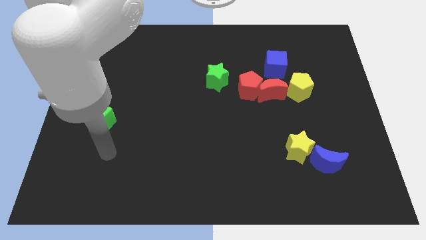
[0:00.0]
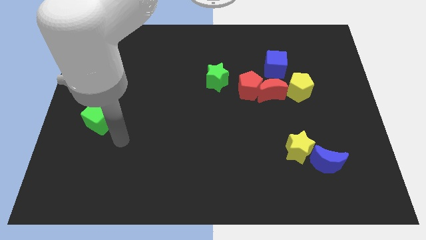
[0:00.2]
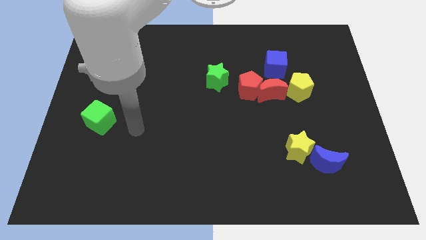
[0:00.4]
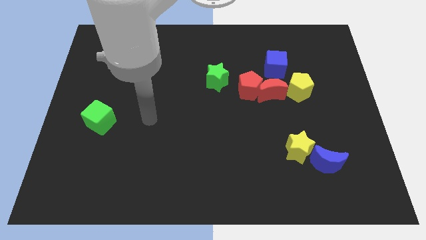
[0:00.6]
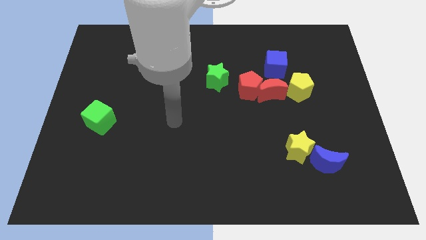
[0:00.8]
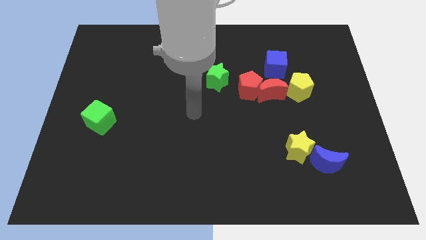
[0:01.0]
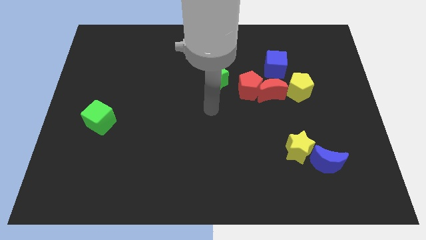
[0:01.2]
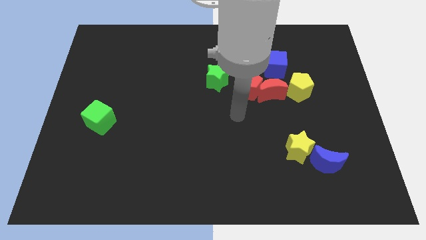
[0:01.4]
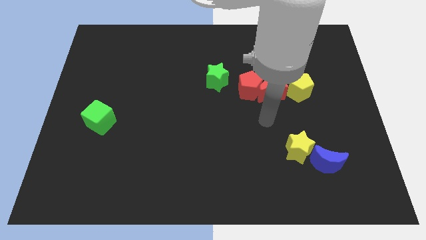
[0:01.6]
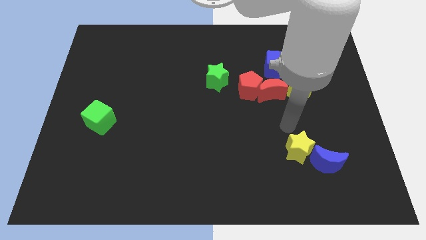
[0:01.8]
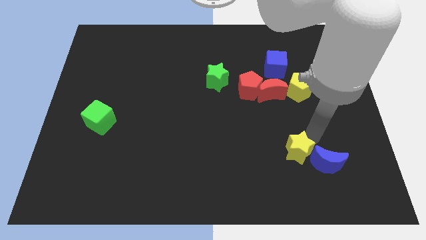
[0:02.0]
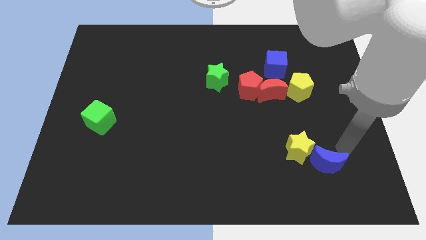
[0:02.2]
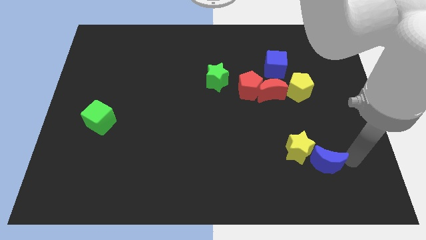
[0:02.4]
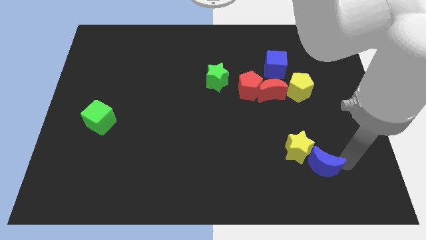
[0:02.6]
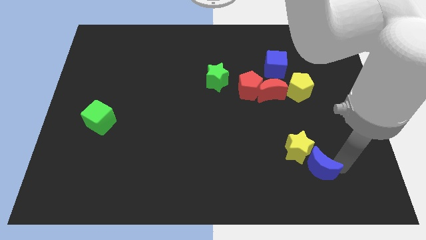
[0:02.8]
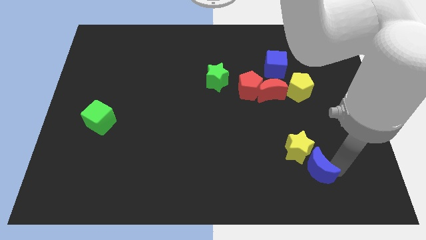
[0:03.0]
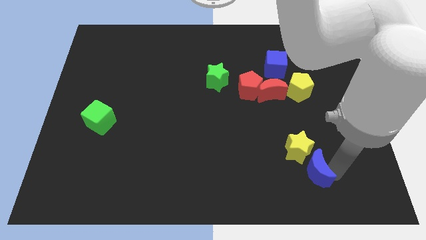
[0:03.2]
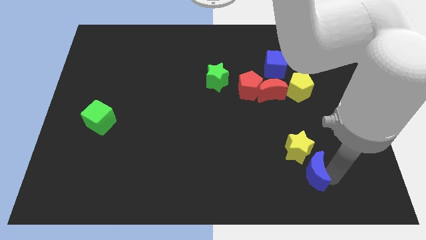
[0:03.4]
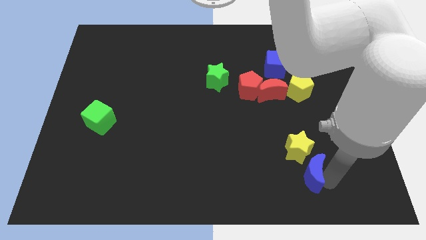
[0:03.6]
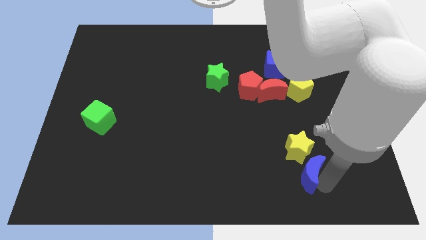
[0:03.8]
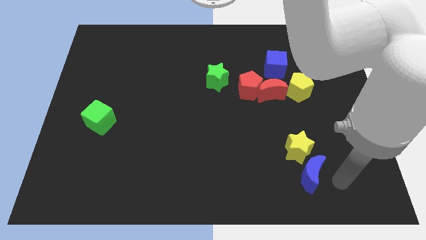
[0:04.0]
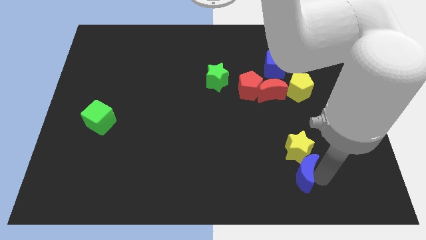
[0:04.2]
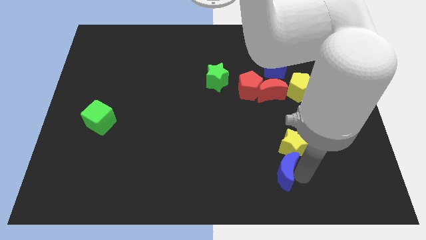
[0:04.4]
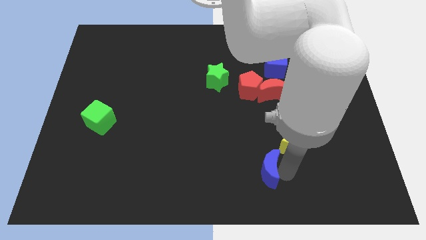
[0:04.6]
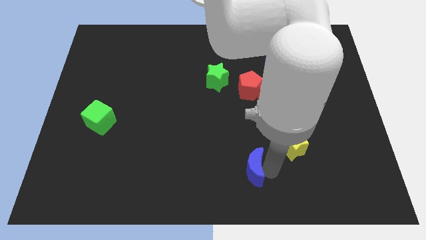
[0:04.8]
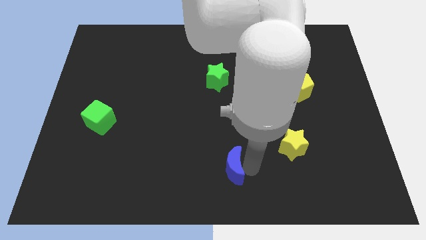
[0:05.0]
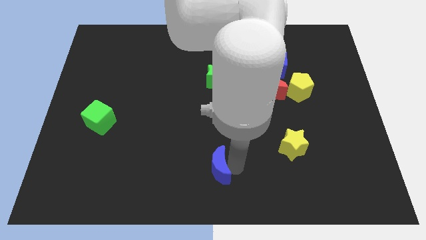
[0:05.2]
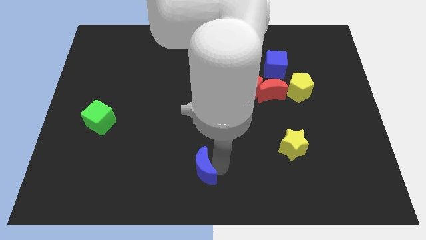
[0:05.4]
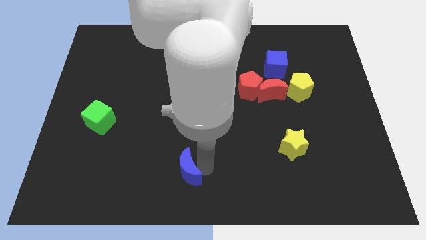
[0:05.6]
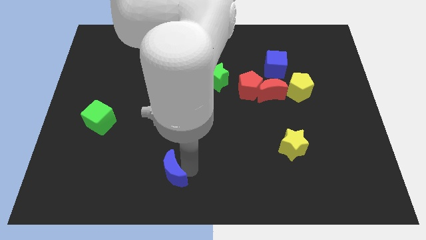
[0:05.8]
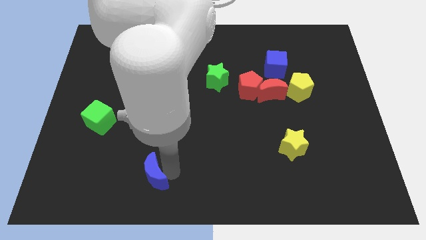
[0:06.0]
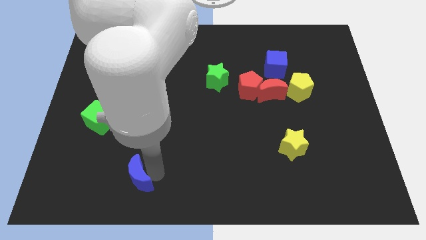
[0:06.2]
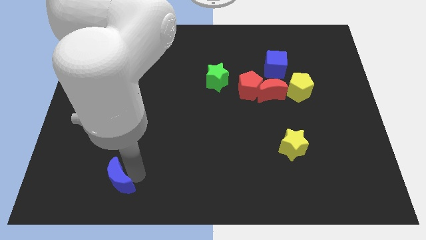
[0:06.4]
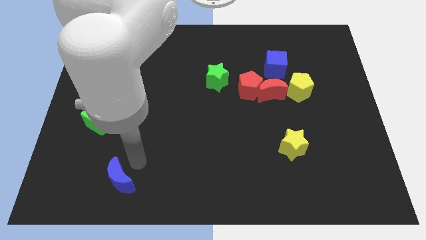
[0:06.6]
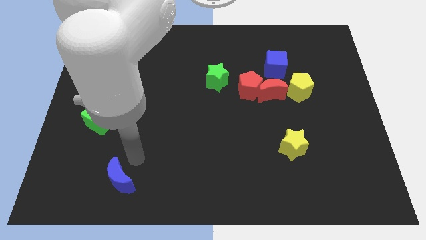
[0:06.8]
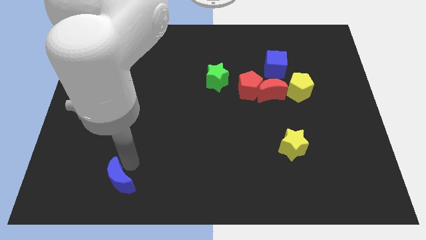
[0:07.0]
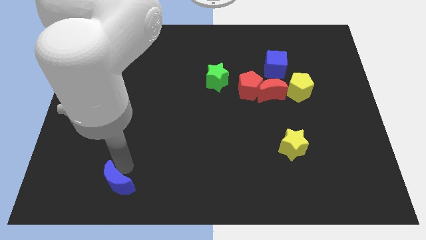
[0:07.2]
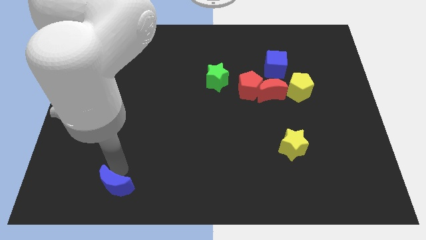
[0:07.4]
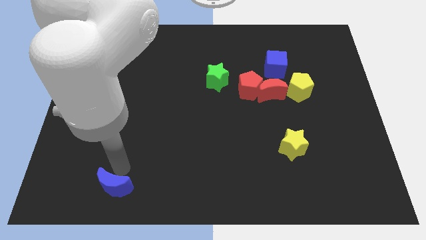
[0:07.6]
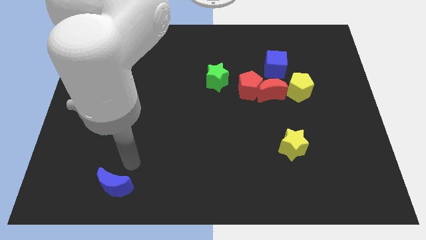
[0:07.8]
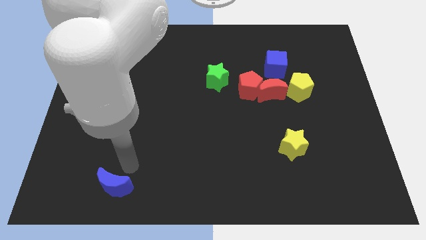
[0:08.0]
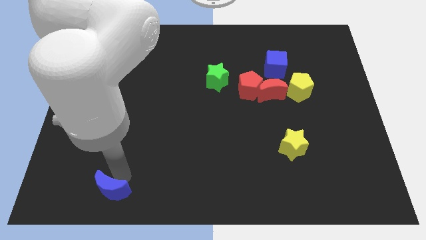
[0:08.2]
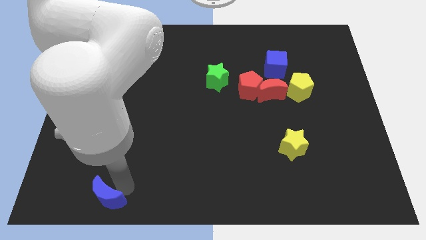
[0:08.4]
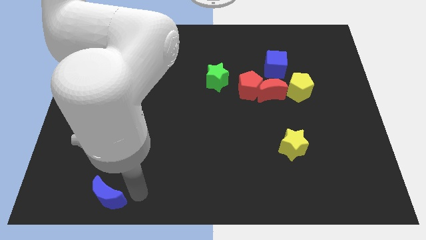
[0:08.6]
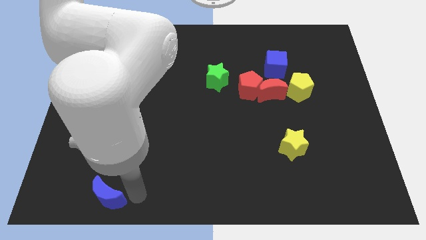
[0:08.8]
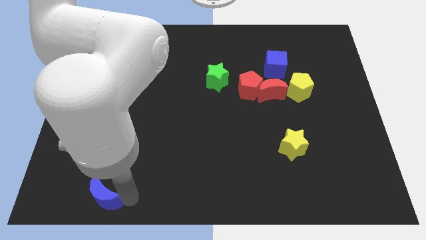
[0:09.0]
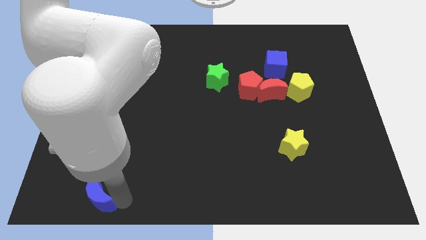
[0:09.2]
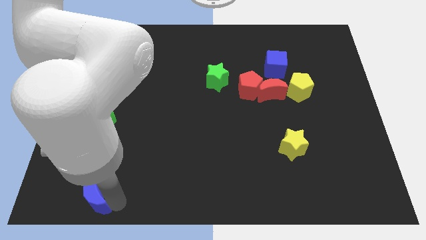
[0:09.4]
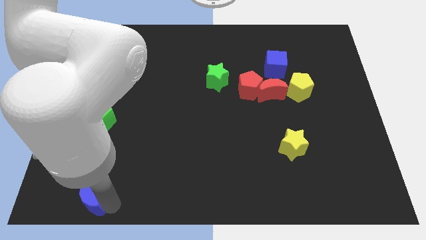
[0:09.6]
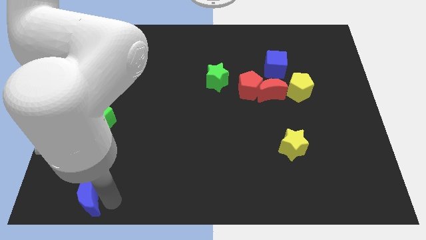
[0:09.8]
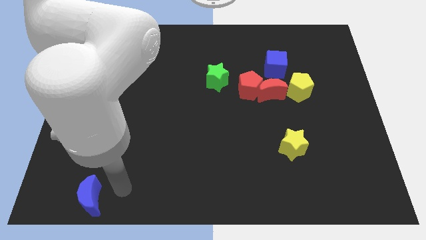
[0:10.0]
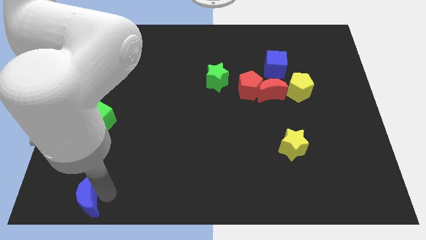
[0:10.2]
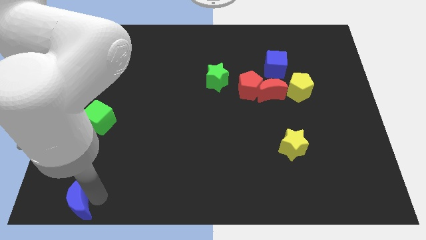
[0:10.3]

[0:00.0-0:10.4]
put the blue moon to the bottom left

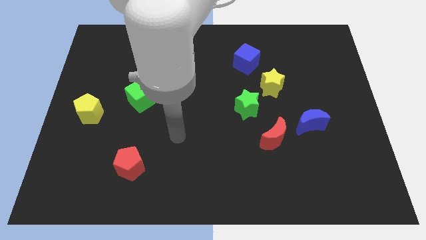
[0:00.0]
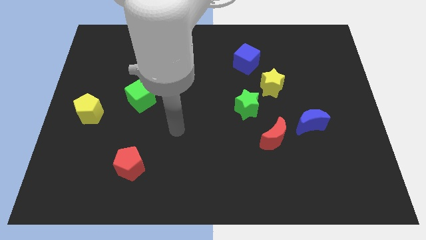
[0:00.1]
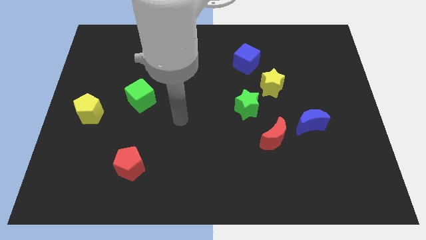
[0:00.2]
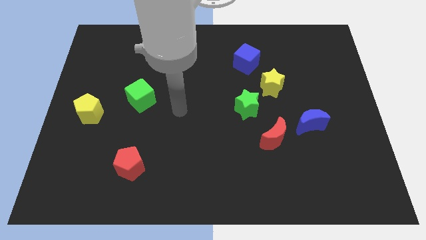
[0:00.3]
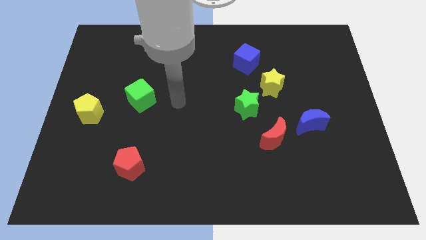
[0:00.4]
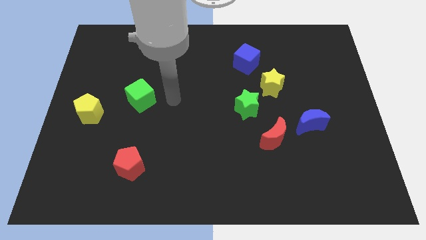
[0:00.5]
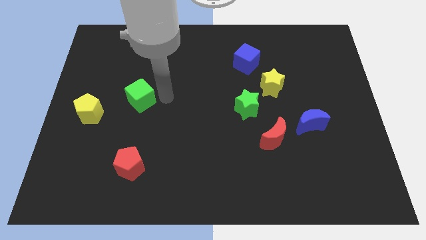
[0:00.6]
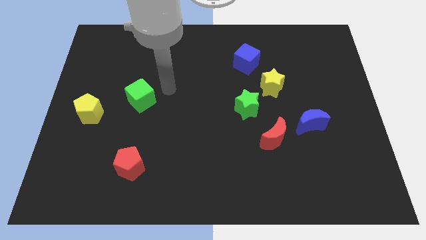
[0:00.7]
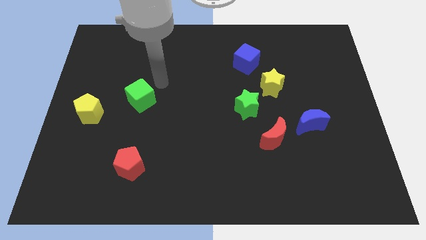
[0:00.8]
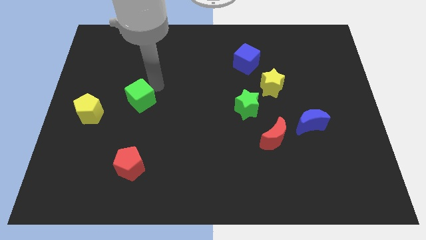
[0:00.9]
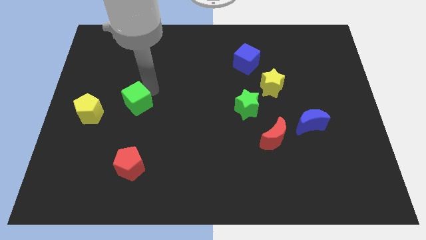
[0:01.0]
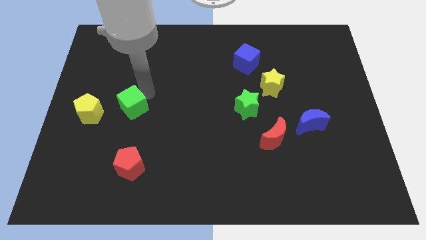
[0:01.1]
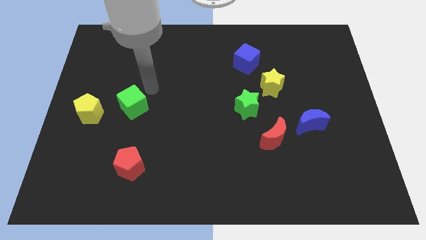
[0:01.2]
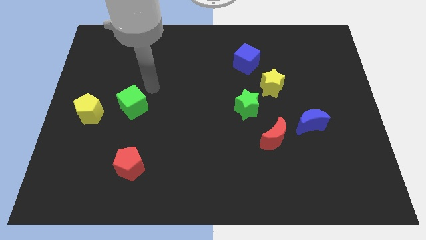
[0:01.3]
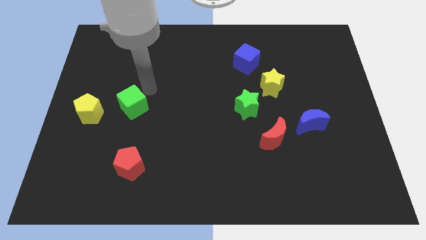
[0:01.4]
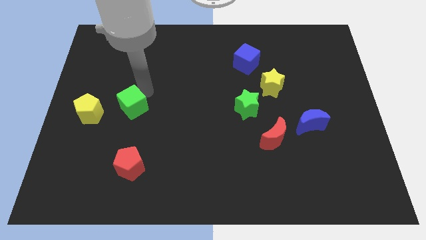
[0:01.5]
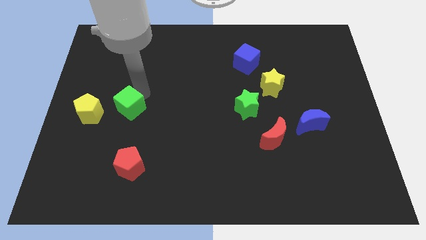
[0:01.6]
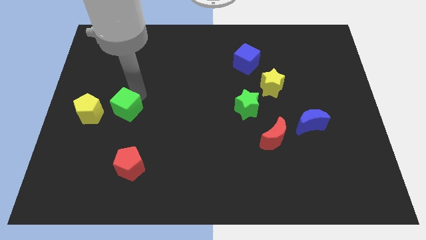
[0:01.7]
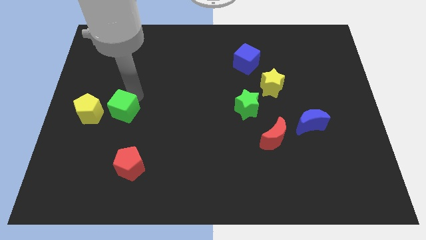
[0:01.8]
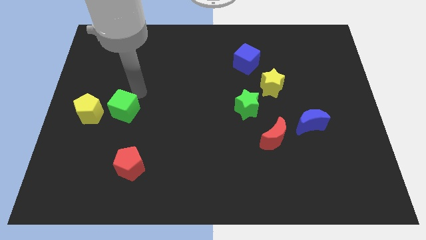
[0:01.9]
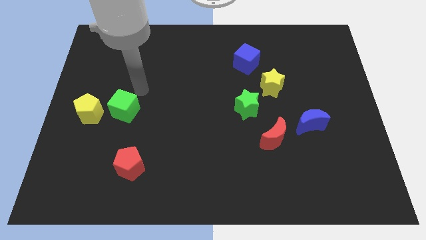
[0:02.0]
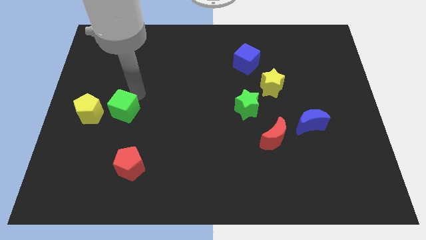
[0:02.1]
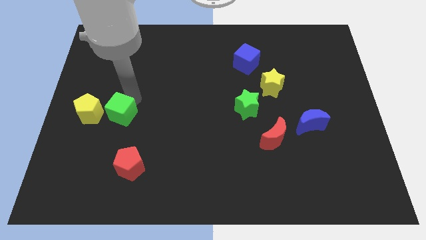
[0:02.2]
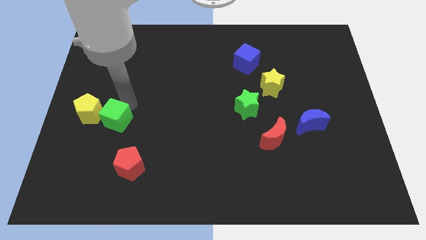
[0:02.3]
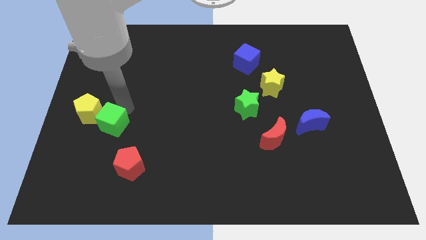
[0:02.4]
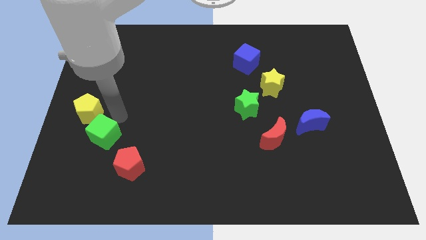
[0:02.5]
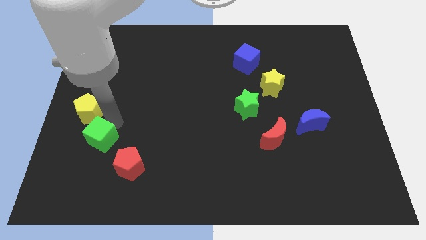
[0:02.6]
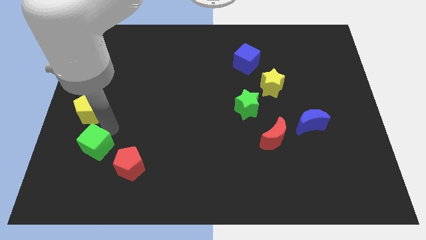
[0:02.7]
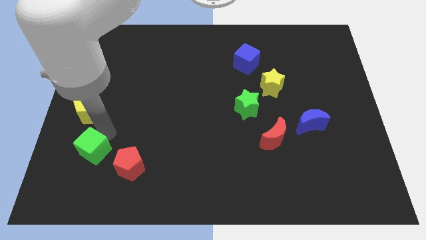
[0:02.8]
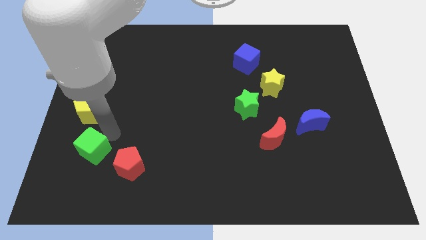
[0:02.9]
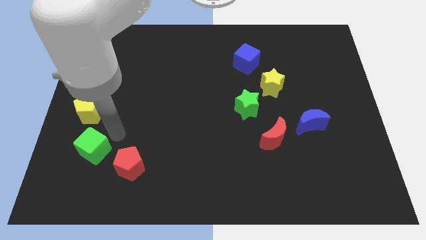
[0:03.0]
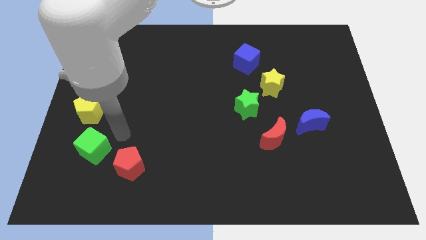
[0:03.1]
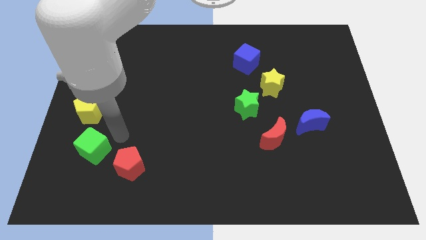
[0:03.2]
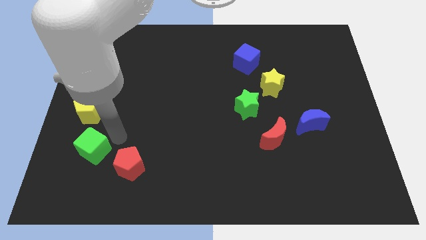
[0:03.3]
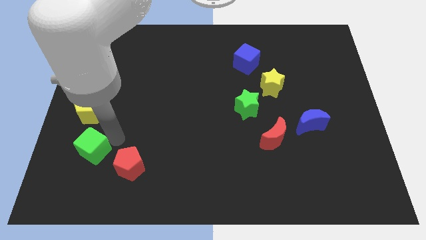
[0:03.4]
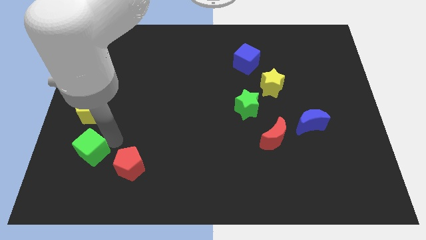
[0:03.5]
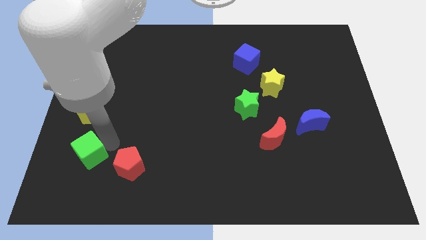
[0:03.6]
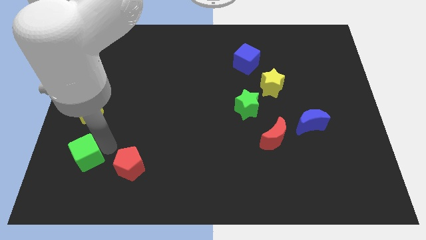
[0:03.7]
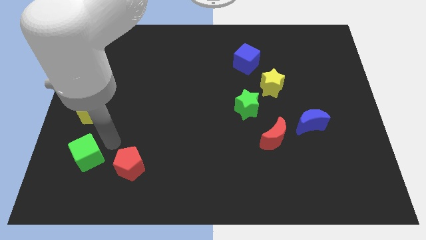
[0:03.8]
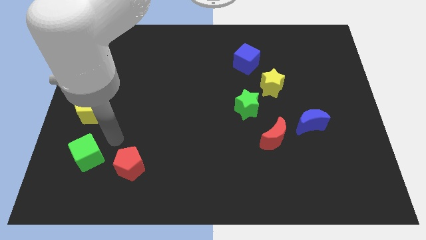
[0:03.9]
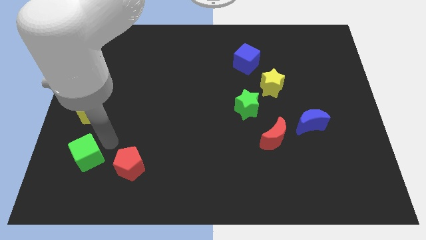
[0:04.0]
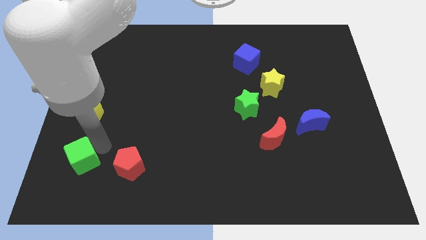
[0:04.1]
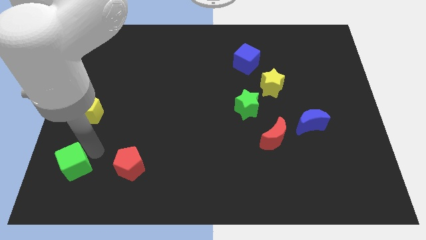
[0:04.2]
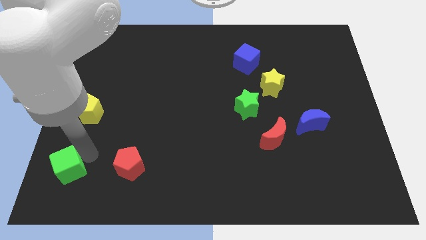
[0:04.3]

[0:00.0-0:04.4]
move the green cube to the lower left corner
